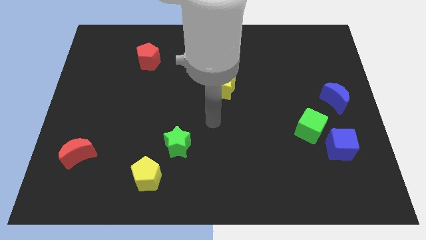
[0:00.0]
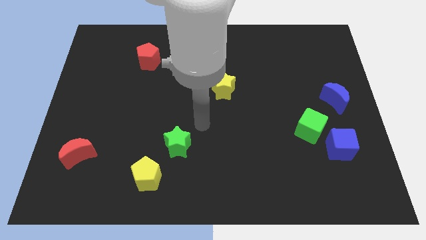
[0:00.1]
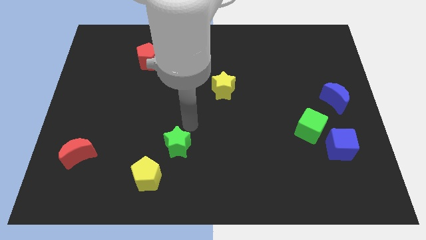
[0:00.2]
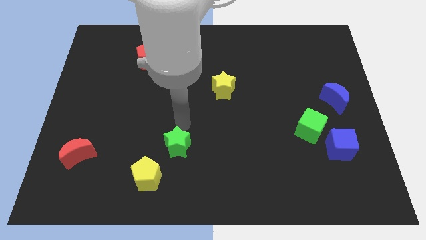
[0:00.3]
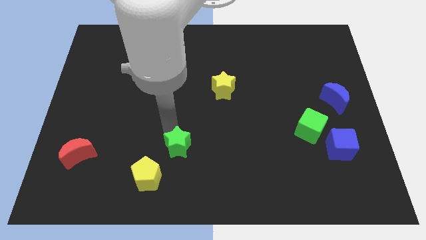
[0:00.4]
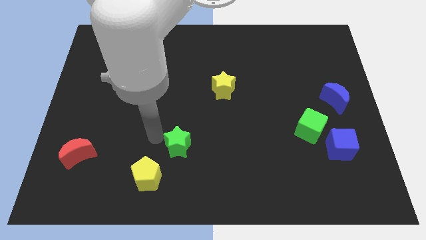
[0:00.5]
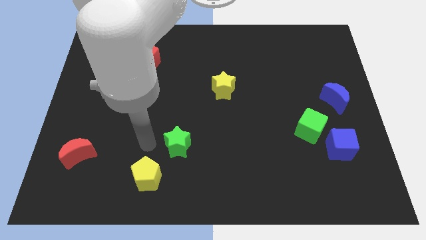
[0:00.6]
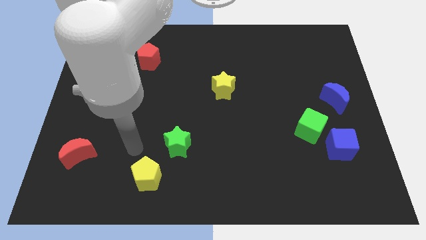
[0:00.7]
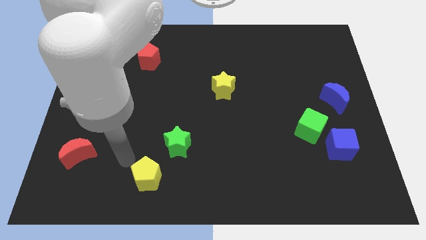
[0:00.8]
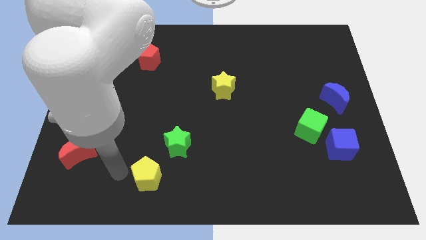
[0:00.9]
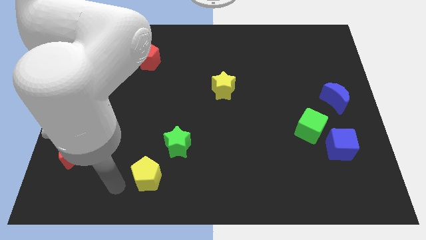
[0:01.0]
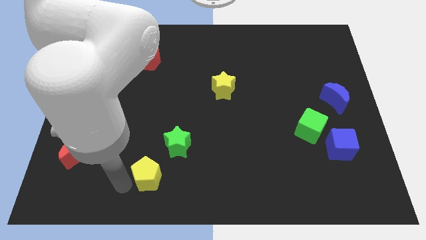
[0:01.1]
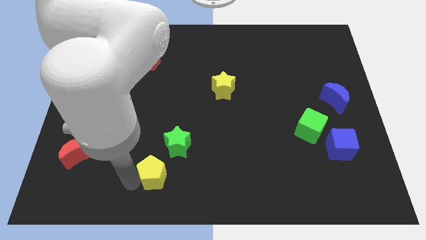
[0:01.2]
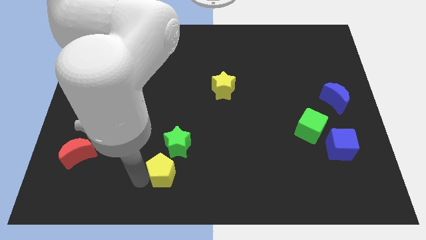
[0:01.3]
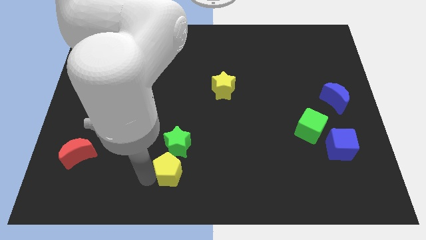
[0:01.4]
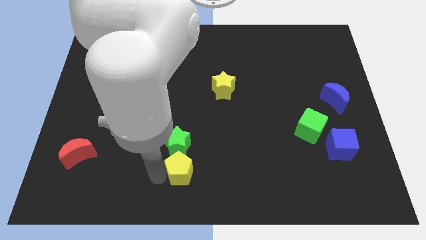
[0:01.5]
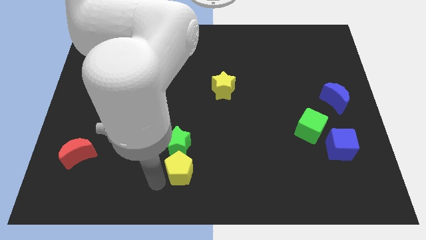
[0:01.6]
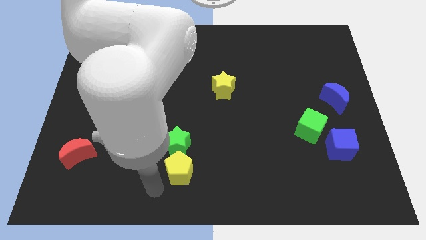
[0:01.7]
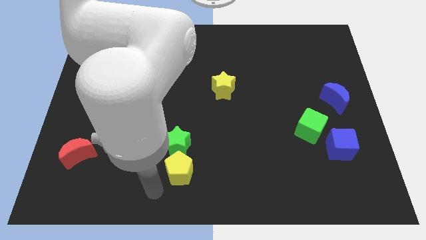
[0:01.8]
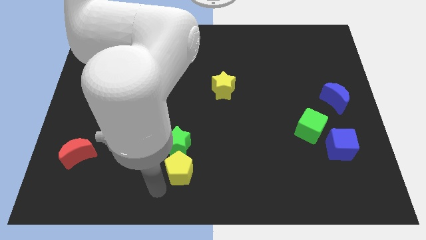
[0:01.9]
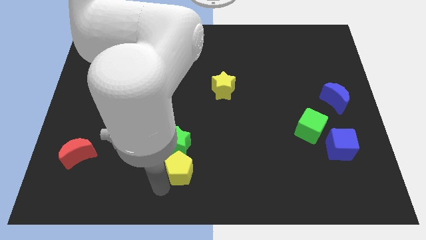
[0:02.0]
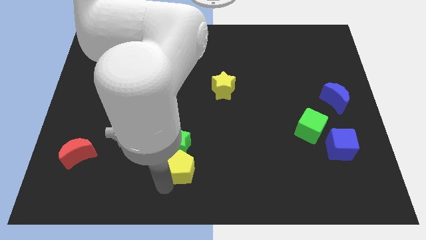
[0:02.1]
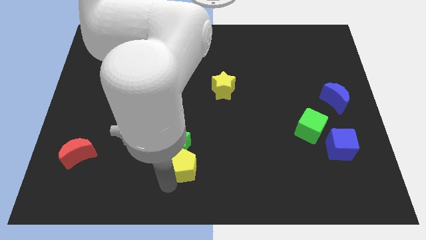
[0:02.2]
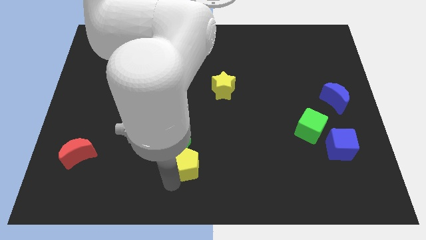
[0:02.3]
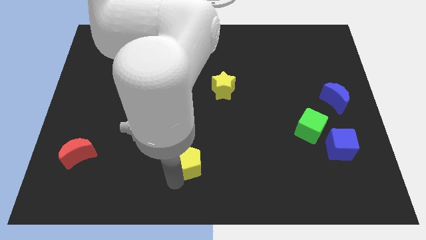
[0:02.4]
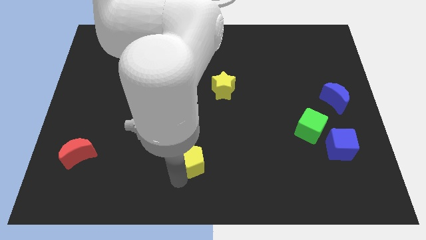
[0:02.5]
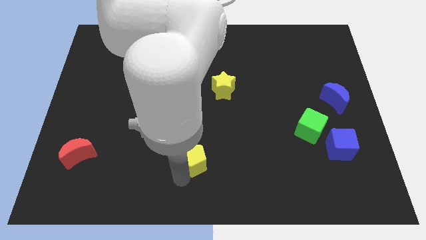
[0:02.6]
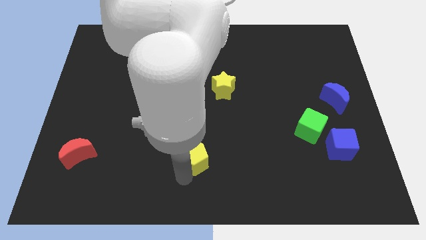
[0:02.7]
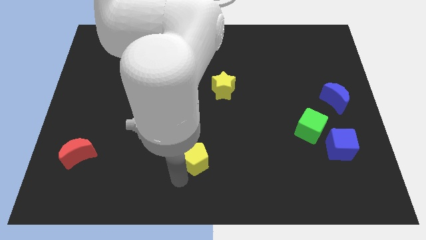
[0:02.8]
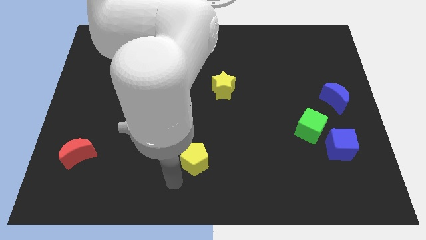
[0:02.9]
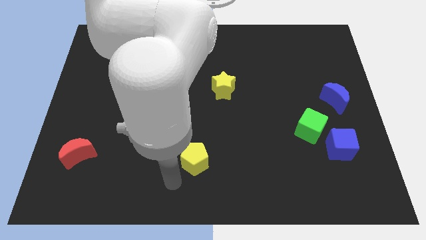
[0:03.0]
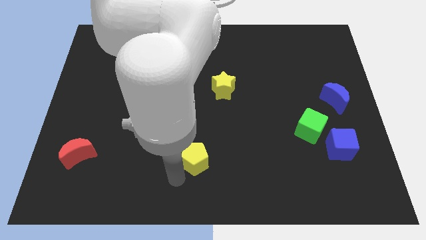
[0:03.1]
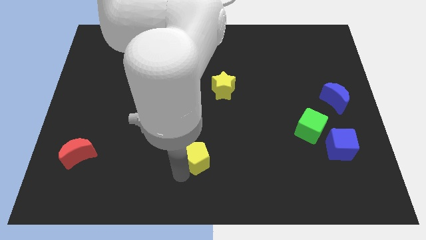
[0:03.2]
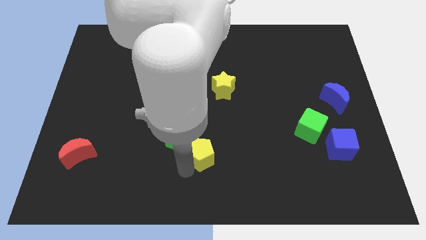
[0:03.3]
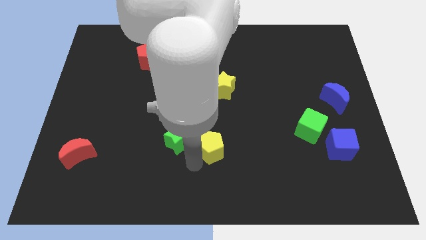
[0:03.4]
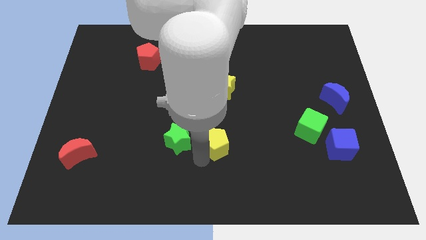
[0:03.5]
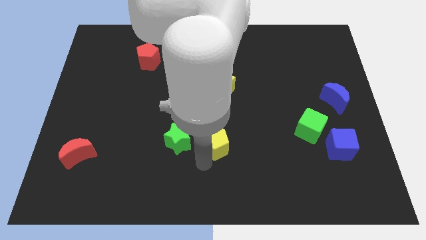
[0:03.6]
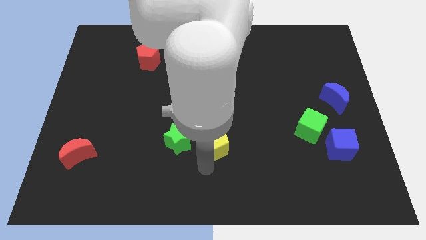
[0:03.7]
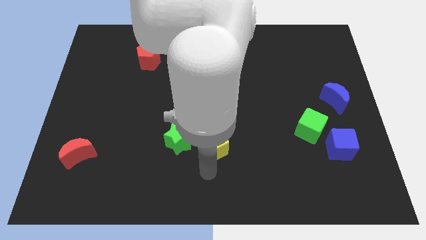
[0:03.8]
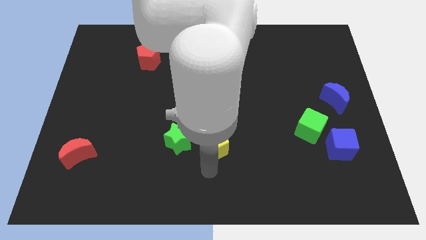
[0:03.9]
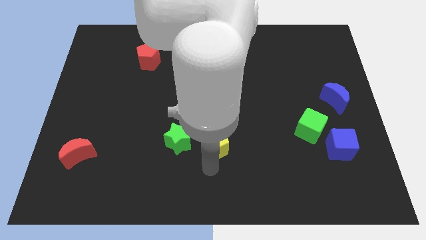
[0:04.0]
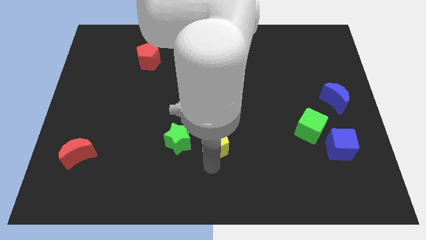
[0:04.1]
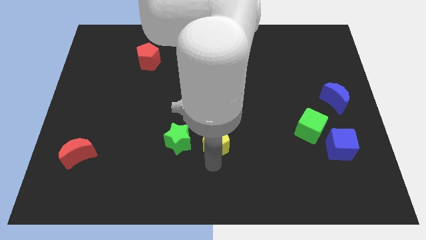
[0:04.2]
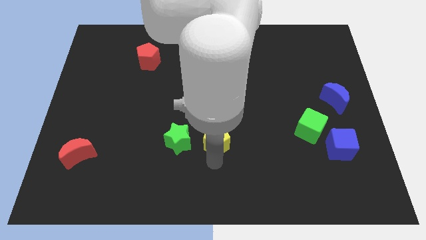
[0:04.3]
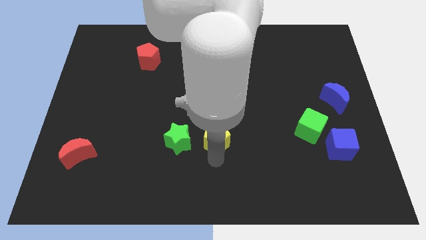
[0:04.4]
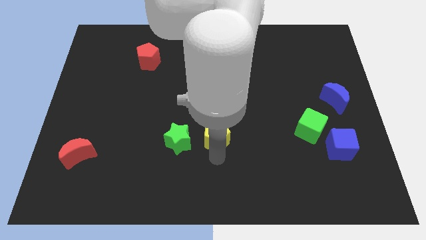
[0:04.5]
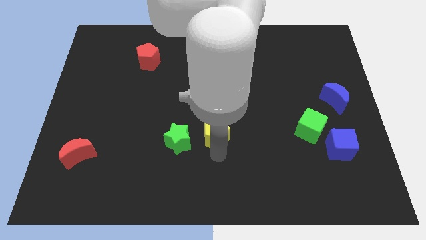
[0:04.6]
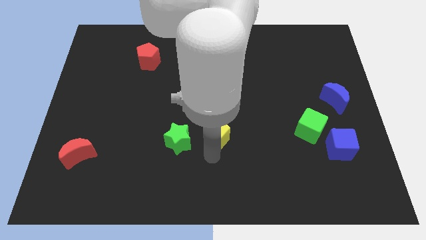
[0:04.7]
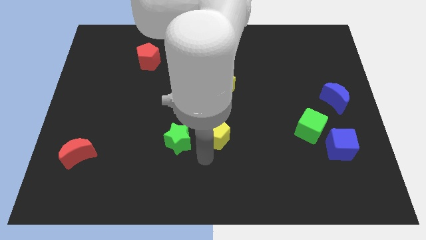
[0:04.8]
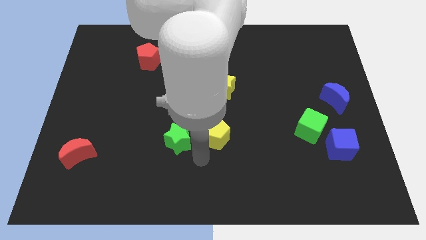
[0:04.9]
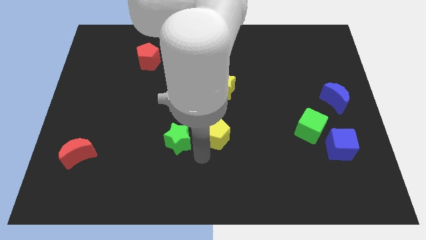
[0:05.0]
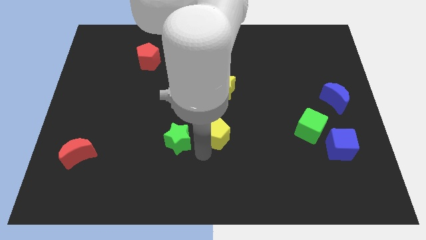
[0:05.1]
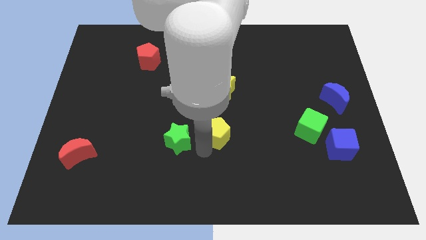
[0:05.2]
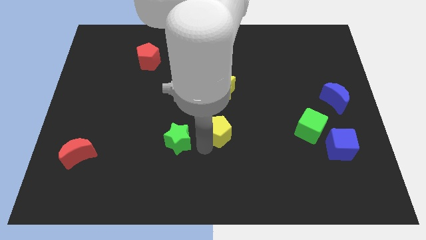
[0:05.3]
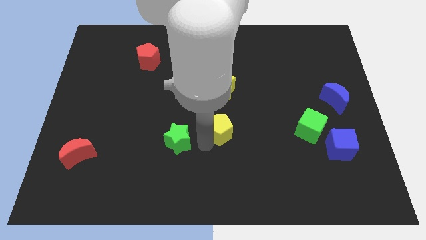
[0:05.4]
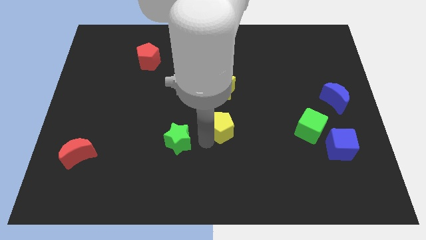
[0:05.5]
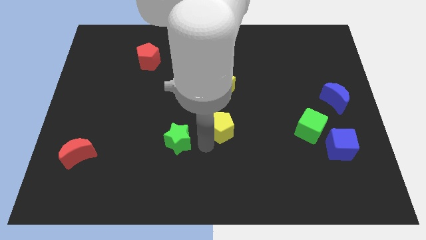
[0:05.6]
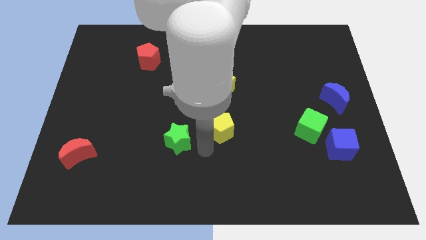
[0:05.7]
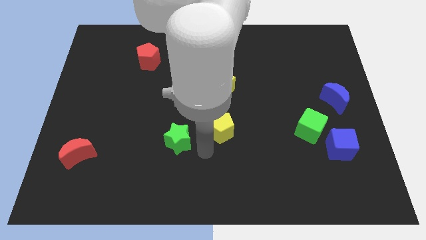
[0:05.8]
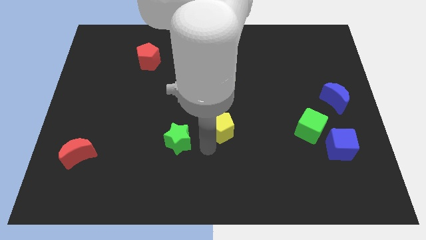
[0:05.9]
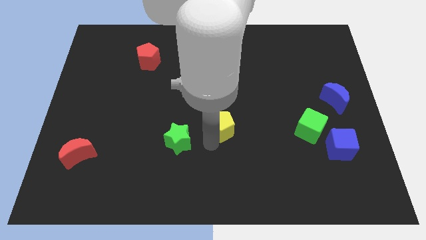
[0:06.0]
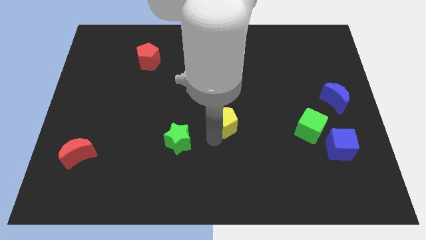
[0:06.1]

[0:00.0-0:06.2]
move the yellow pentagon up and then right

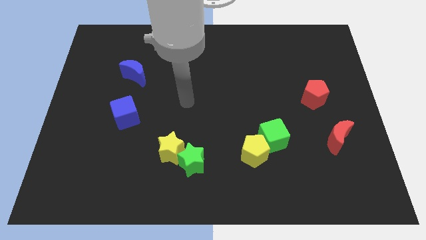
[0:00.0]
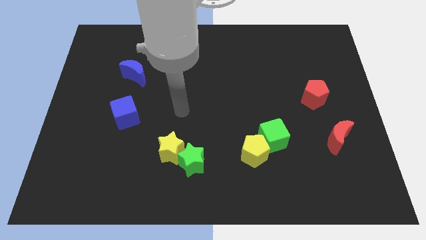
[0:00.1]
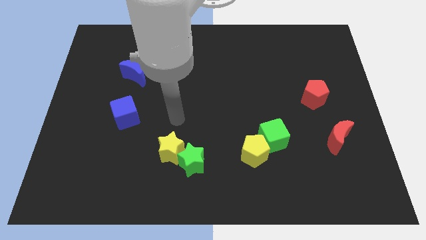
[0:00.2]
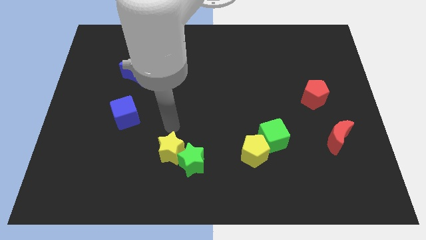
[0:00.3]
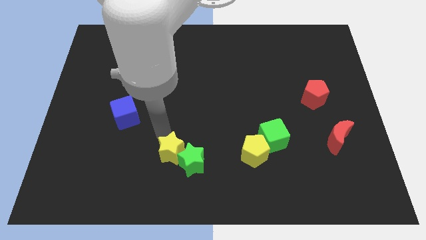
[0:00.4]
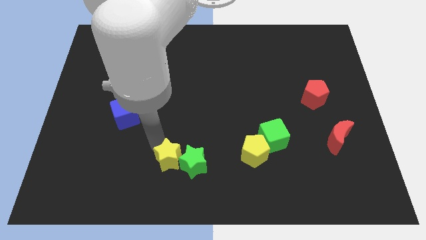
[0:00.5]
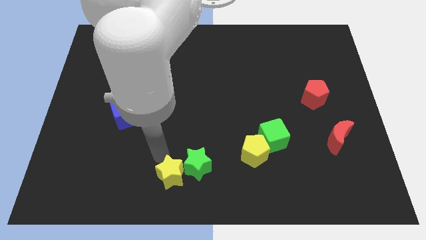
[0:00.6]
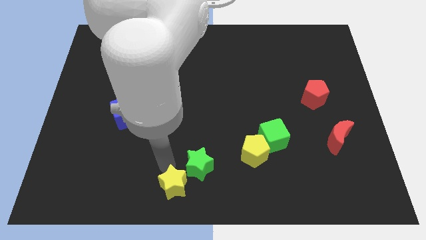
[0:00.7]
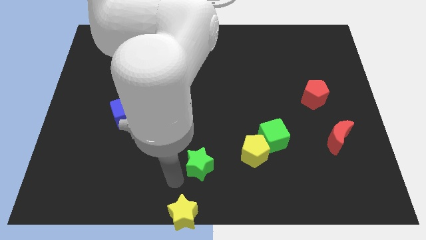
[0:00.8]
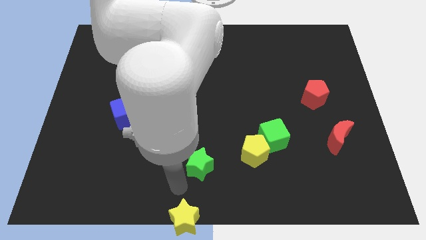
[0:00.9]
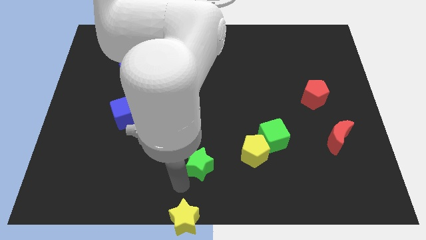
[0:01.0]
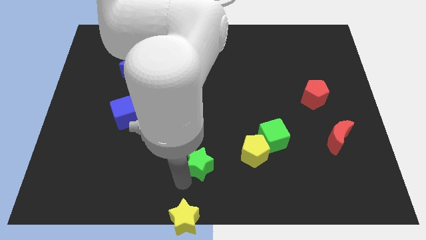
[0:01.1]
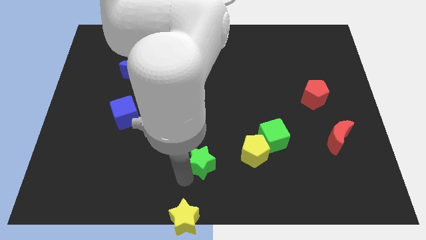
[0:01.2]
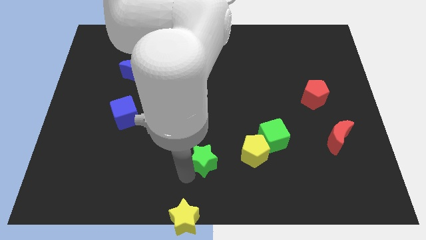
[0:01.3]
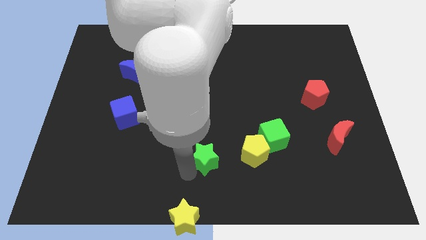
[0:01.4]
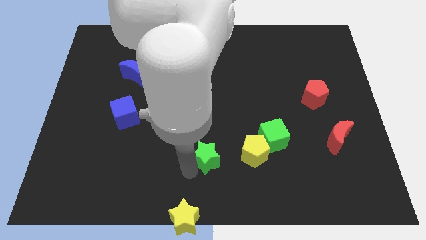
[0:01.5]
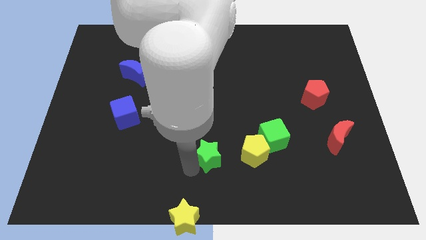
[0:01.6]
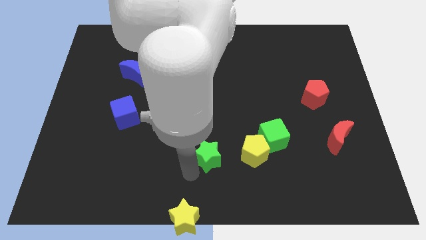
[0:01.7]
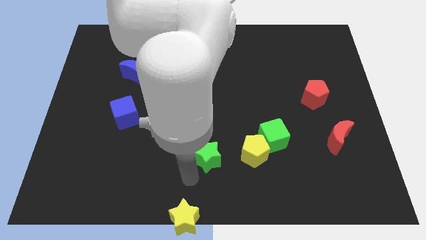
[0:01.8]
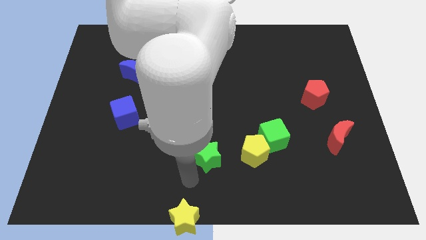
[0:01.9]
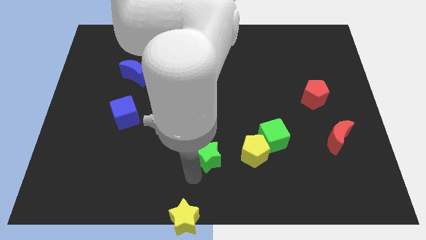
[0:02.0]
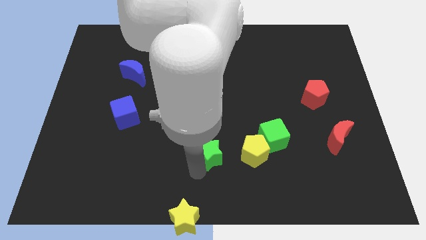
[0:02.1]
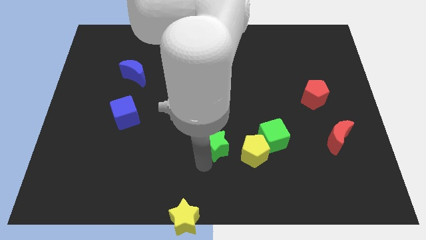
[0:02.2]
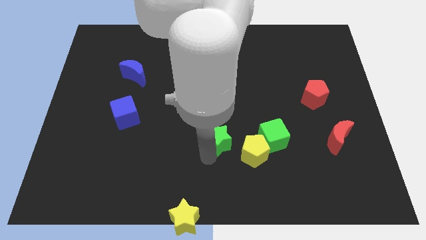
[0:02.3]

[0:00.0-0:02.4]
push the green star up and then to the right slightly
